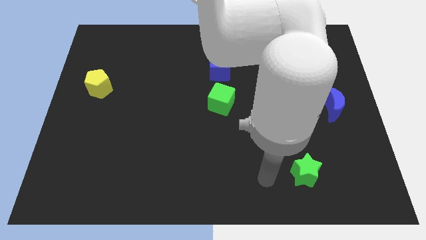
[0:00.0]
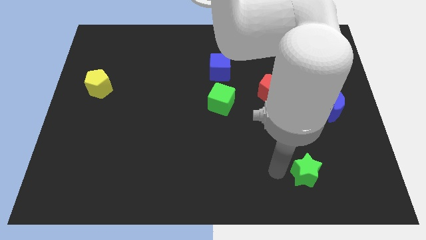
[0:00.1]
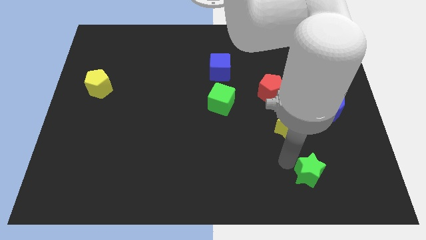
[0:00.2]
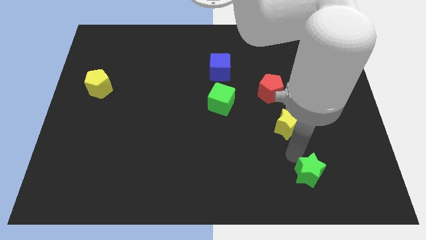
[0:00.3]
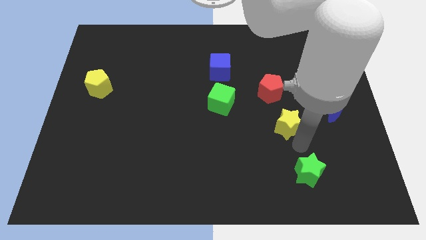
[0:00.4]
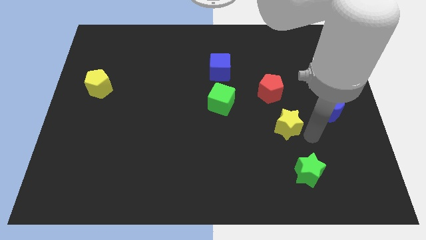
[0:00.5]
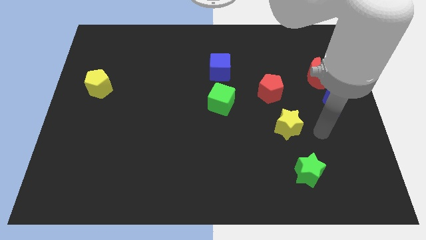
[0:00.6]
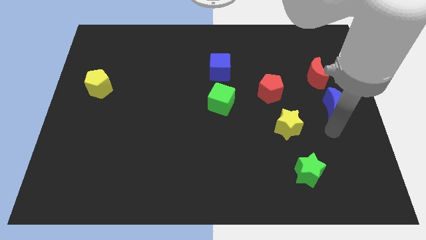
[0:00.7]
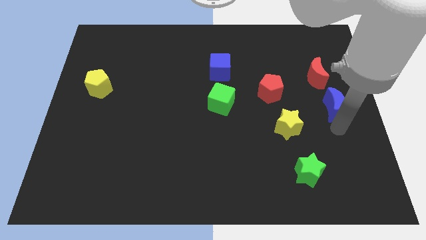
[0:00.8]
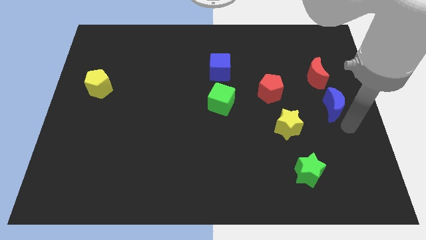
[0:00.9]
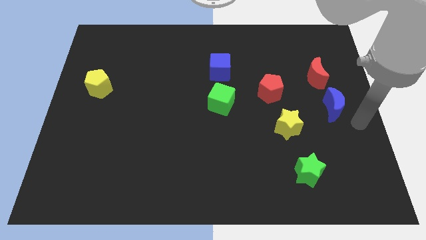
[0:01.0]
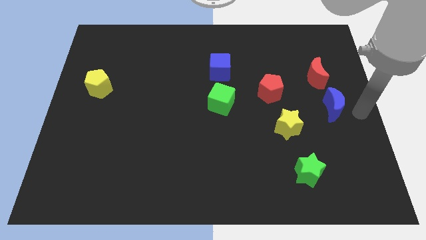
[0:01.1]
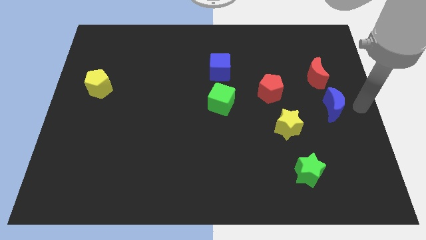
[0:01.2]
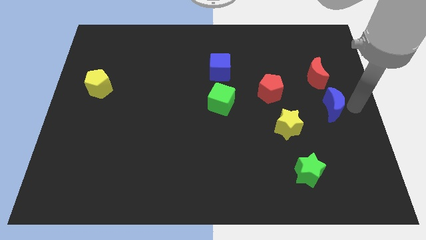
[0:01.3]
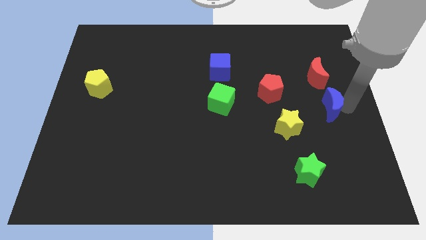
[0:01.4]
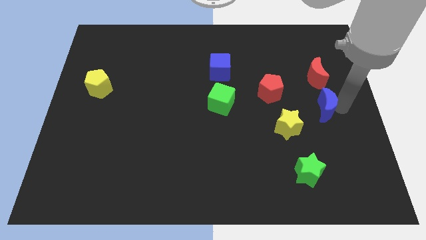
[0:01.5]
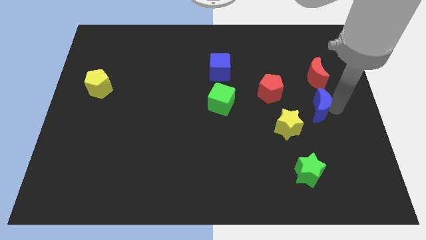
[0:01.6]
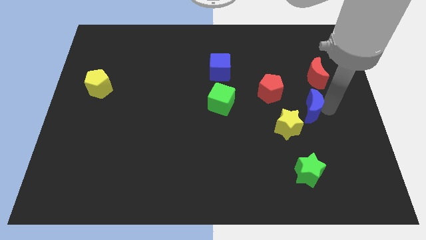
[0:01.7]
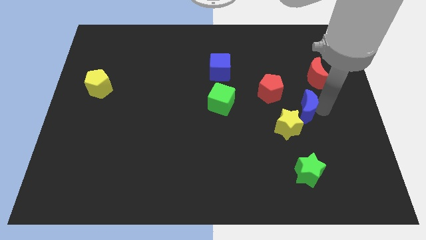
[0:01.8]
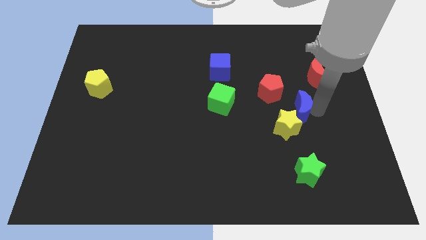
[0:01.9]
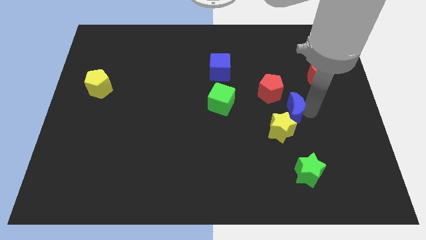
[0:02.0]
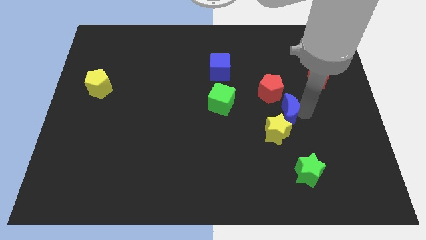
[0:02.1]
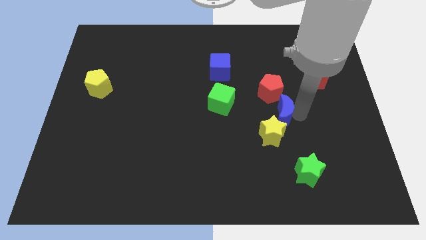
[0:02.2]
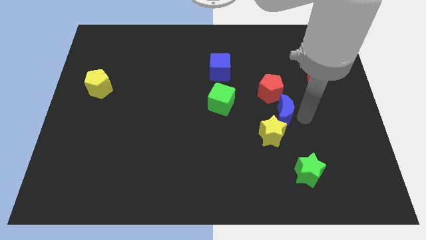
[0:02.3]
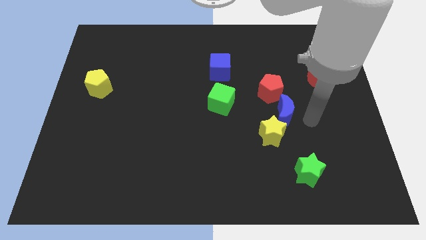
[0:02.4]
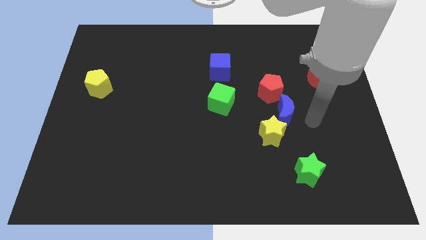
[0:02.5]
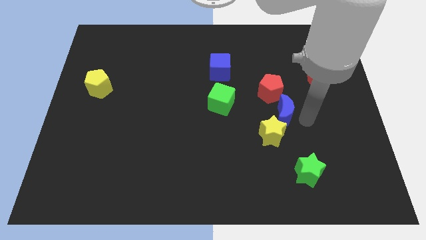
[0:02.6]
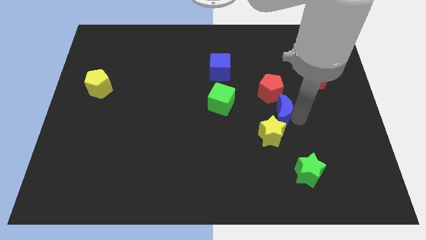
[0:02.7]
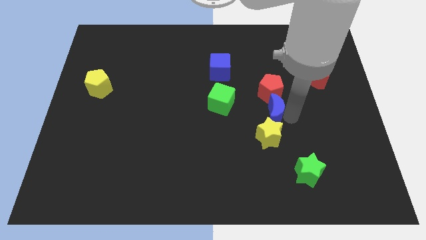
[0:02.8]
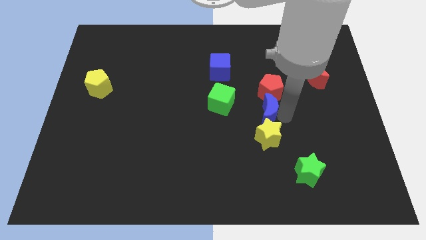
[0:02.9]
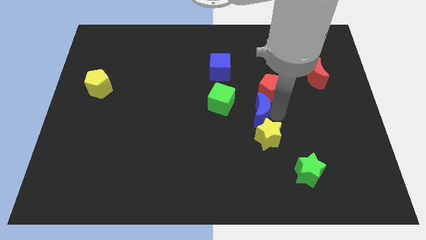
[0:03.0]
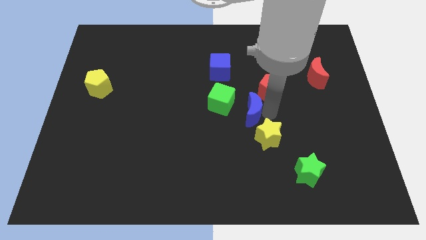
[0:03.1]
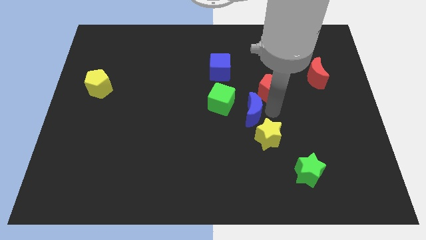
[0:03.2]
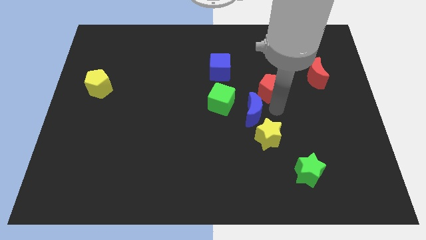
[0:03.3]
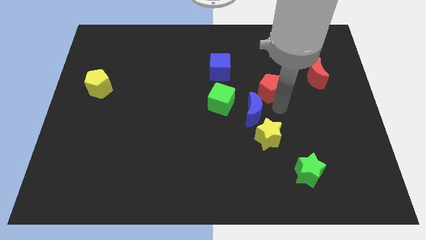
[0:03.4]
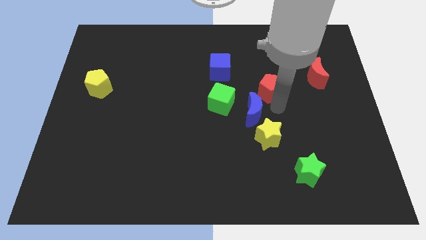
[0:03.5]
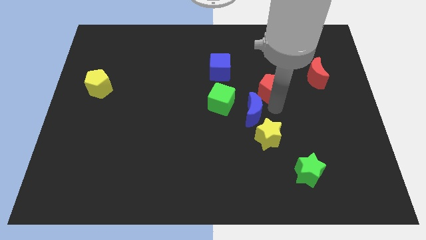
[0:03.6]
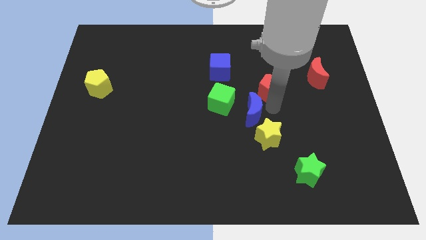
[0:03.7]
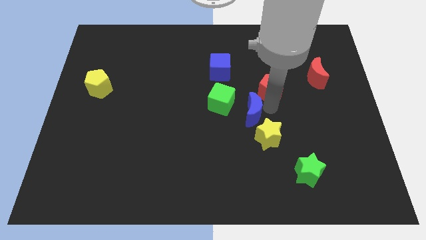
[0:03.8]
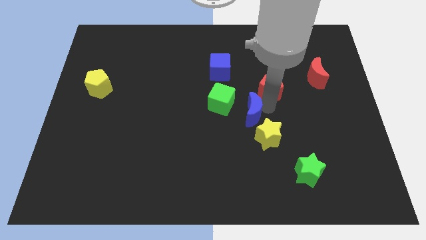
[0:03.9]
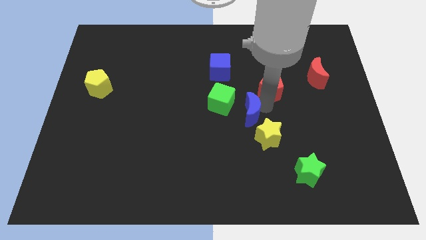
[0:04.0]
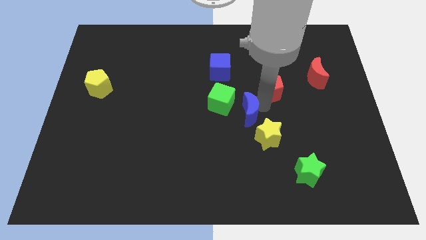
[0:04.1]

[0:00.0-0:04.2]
push the blue moon left

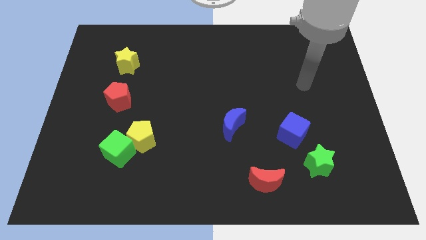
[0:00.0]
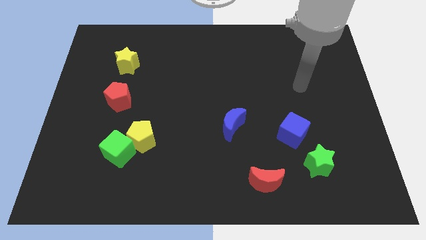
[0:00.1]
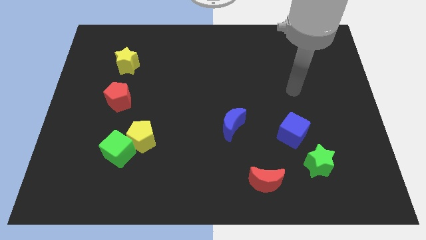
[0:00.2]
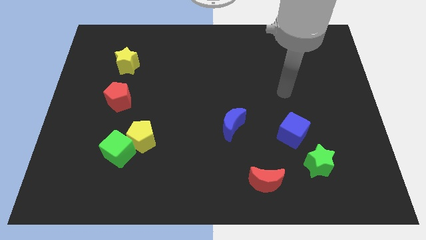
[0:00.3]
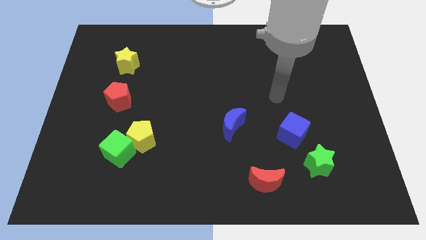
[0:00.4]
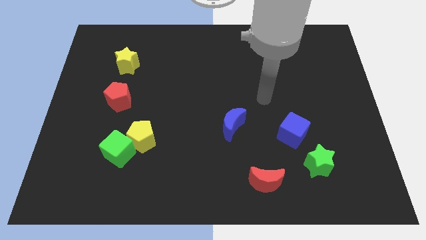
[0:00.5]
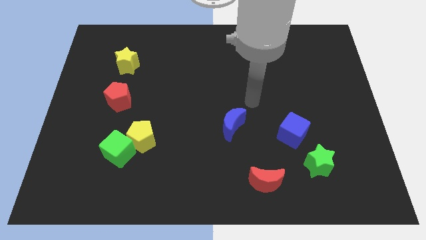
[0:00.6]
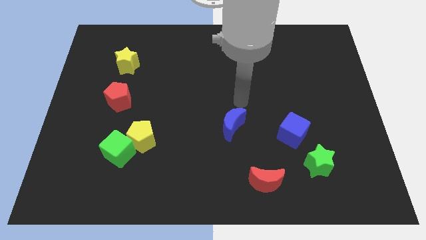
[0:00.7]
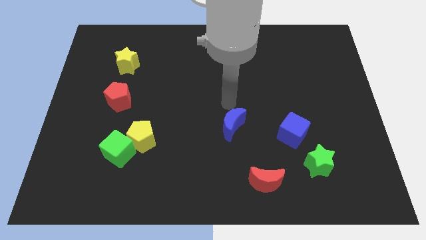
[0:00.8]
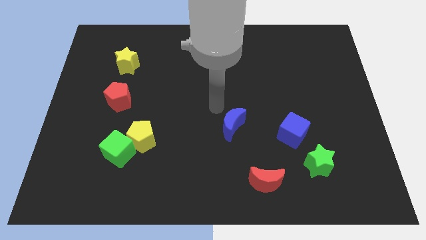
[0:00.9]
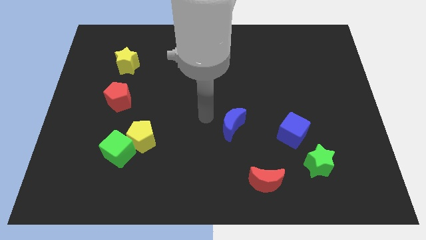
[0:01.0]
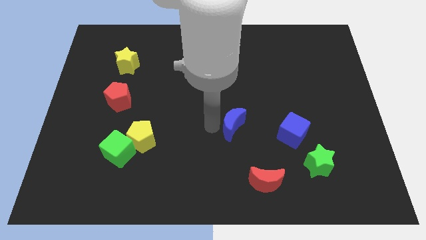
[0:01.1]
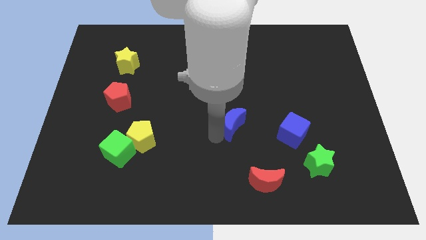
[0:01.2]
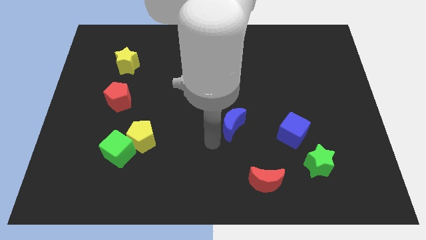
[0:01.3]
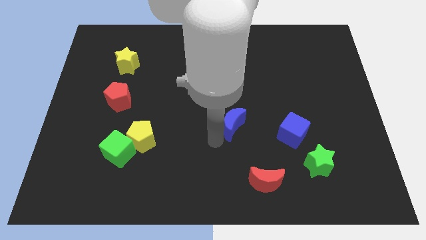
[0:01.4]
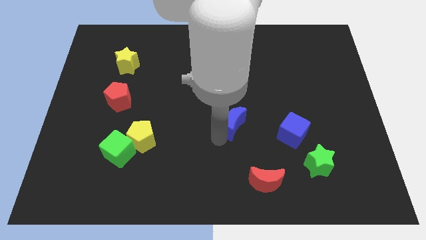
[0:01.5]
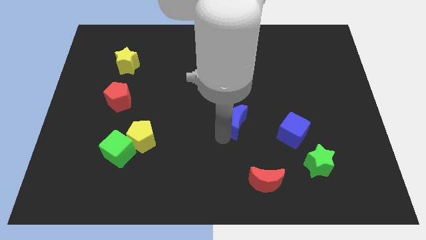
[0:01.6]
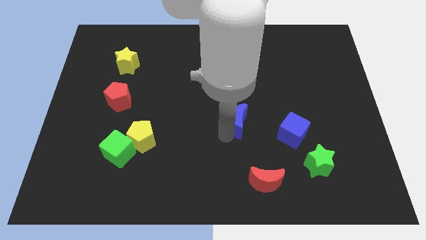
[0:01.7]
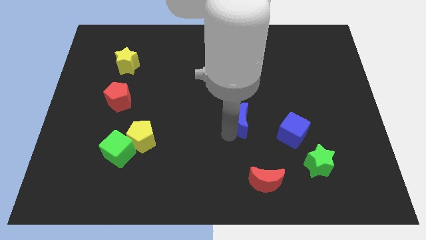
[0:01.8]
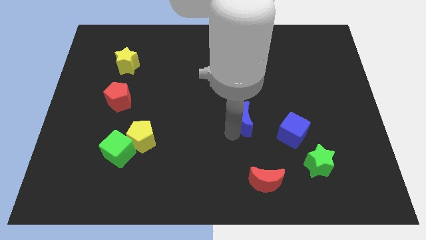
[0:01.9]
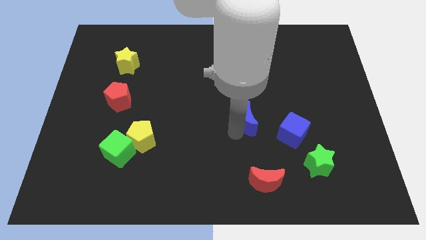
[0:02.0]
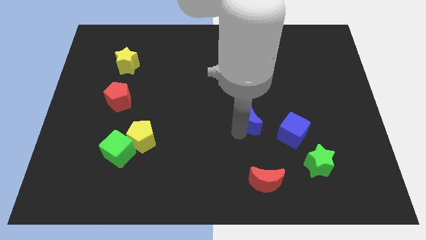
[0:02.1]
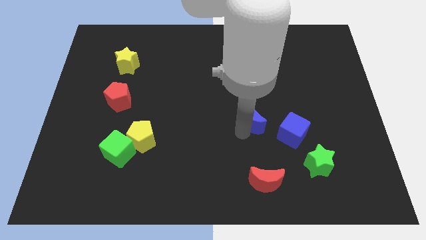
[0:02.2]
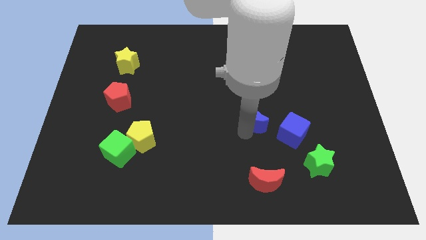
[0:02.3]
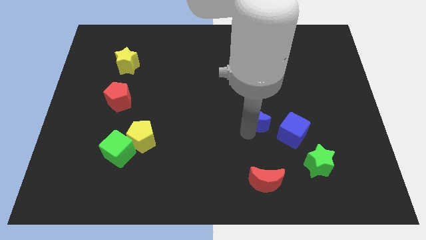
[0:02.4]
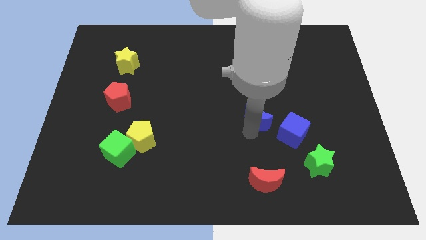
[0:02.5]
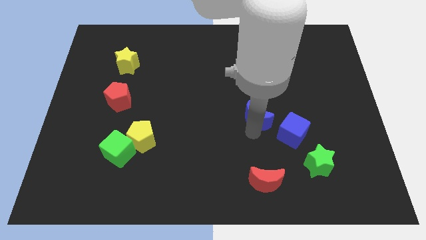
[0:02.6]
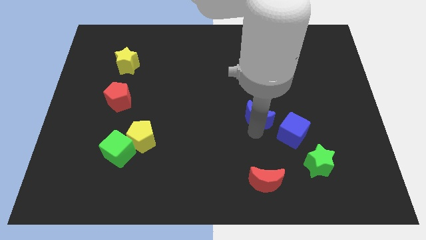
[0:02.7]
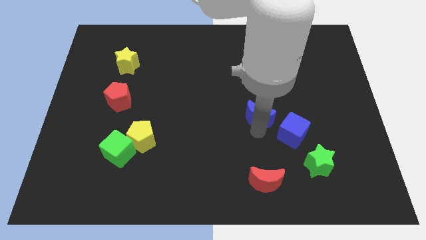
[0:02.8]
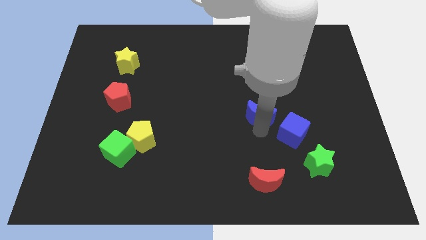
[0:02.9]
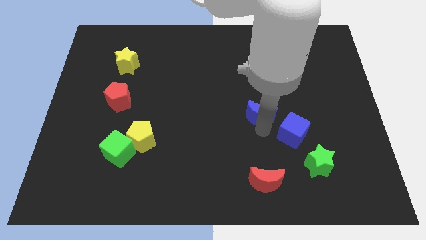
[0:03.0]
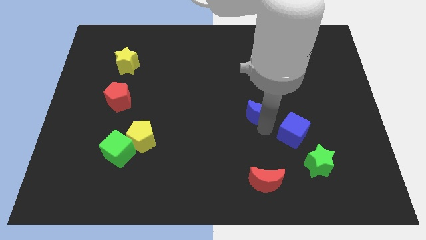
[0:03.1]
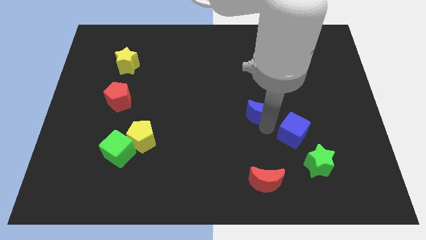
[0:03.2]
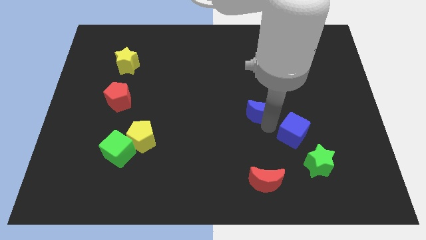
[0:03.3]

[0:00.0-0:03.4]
slide the blue moon a little bit up and then right
